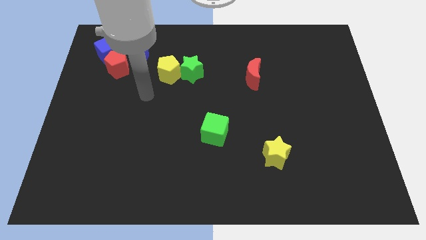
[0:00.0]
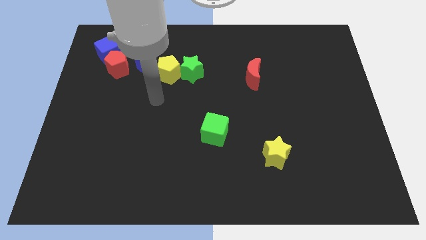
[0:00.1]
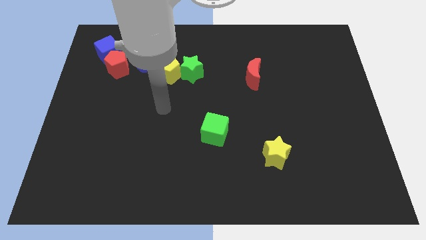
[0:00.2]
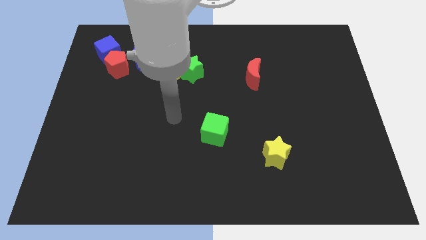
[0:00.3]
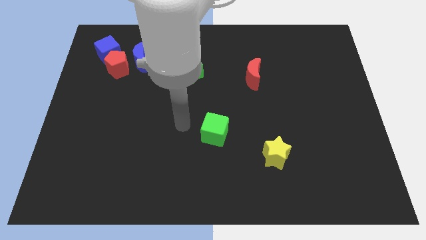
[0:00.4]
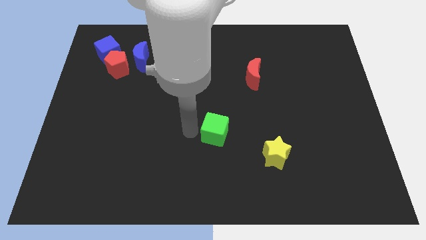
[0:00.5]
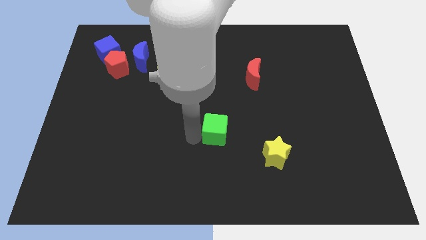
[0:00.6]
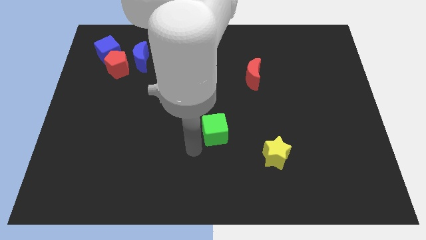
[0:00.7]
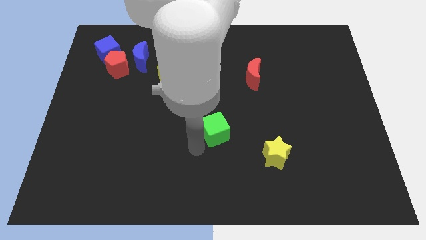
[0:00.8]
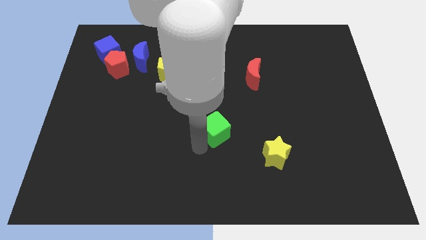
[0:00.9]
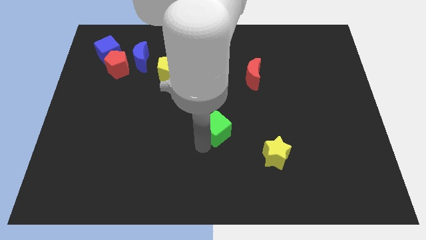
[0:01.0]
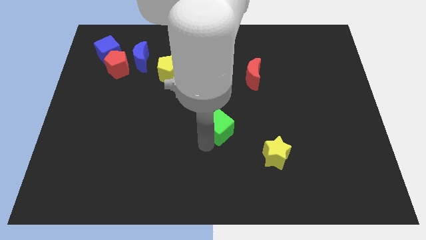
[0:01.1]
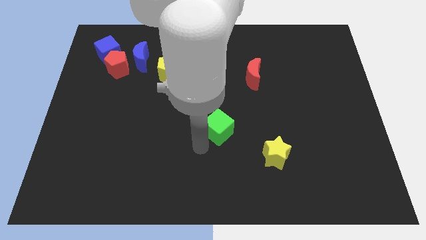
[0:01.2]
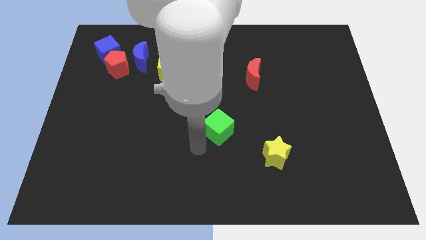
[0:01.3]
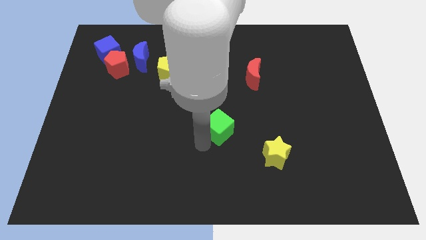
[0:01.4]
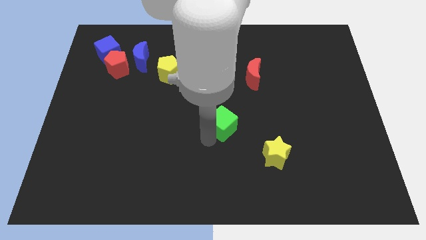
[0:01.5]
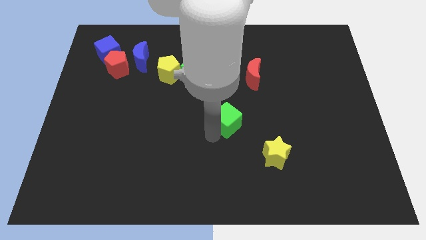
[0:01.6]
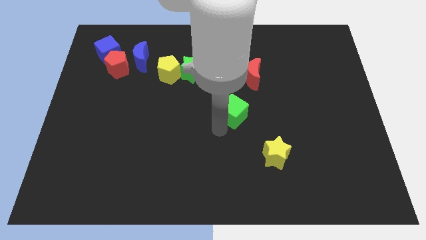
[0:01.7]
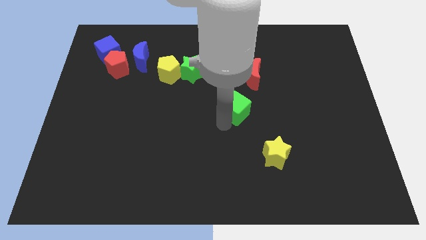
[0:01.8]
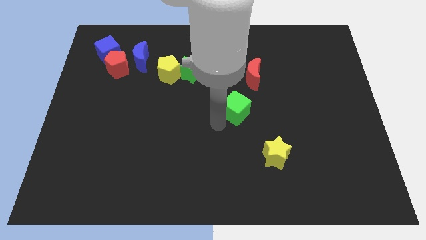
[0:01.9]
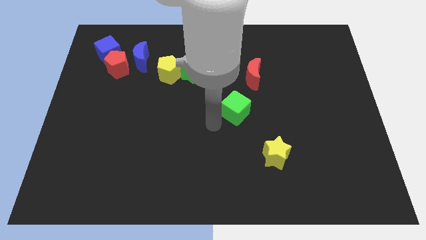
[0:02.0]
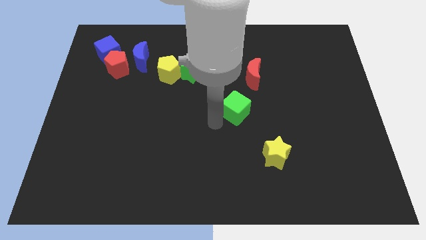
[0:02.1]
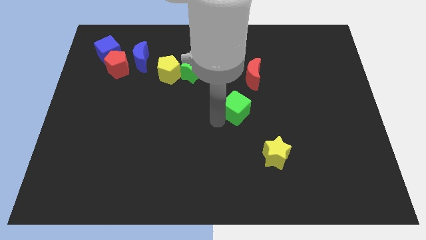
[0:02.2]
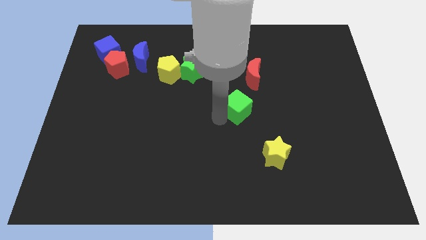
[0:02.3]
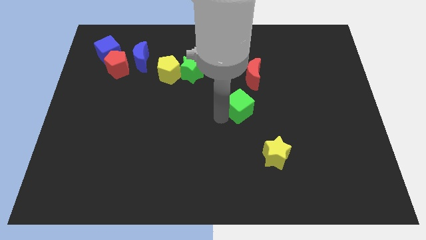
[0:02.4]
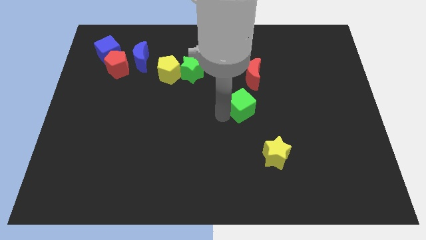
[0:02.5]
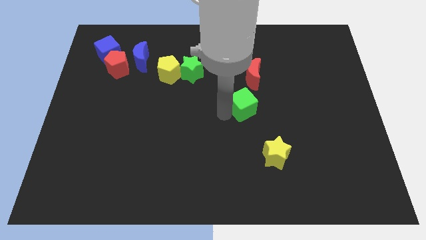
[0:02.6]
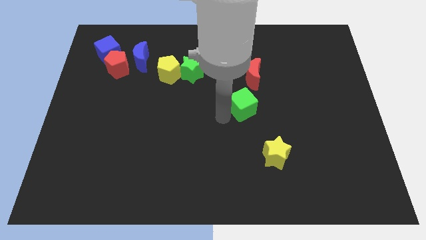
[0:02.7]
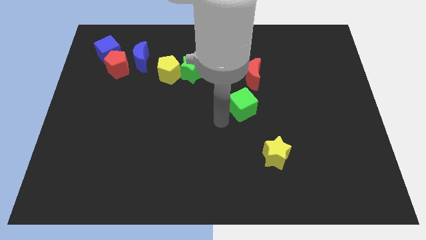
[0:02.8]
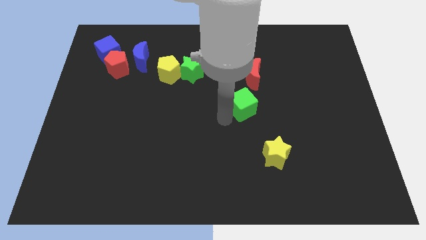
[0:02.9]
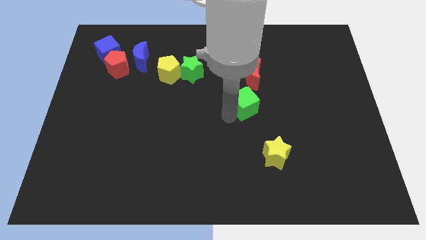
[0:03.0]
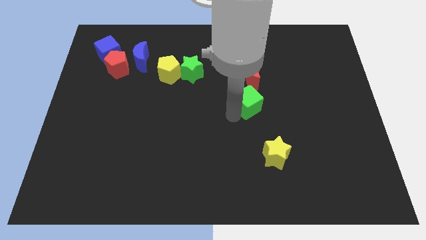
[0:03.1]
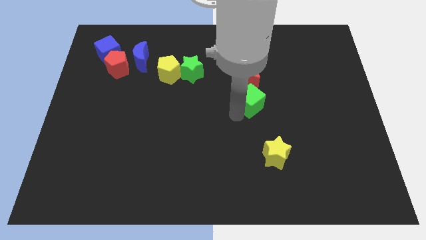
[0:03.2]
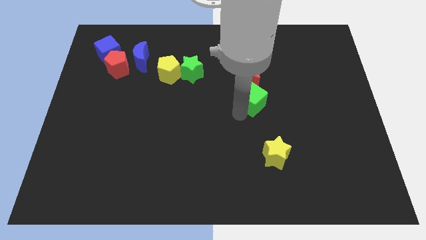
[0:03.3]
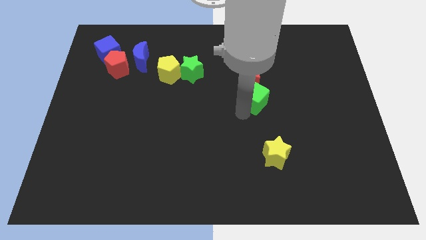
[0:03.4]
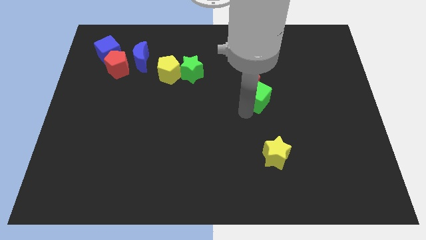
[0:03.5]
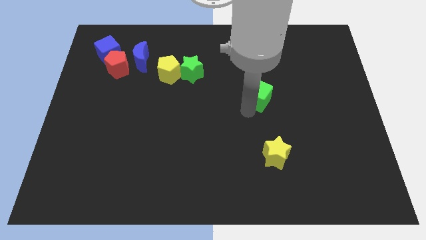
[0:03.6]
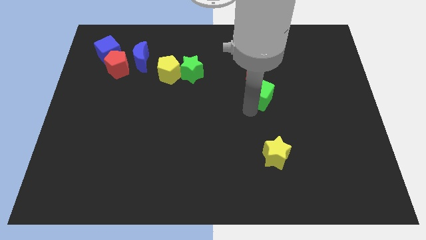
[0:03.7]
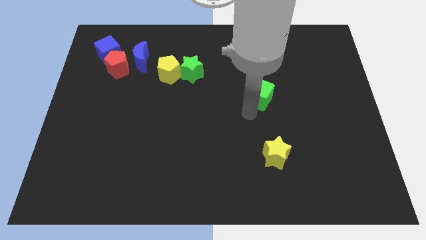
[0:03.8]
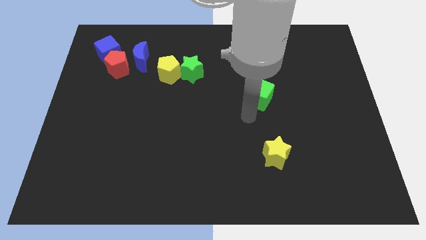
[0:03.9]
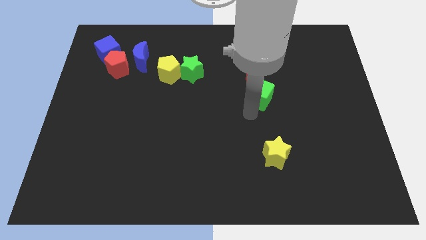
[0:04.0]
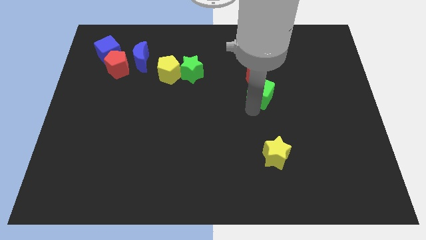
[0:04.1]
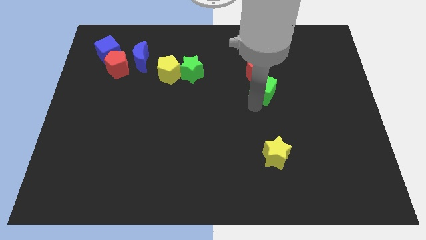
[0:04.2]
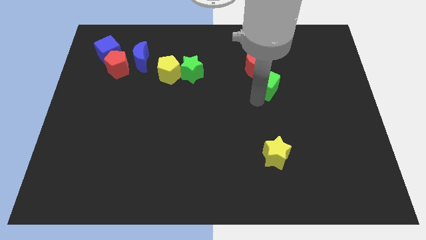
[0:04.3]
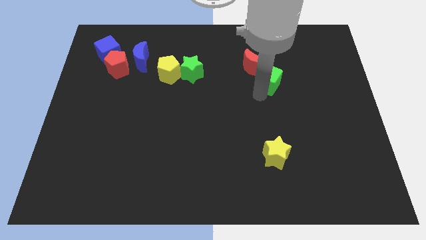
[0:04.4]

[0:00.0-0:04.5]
move the green cube up and to the right

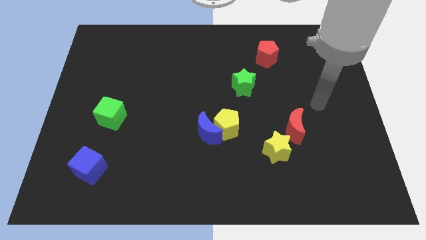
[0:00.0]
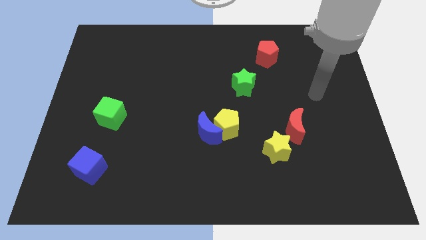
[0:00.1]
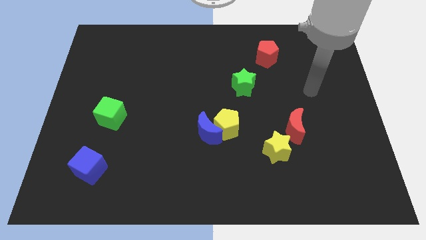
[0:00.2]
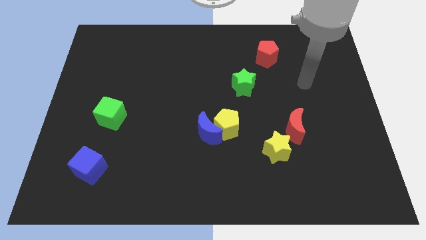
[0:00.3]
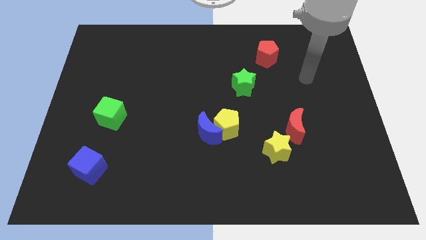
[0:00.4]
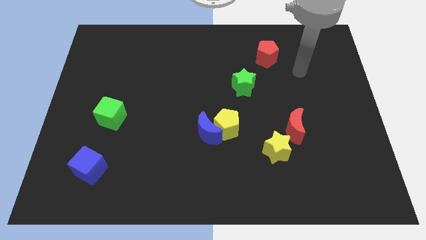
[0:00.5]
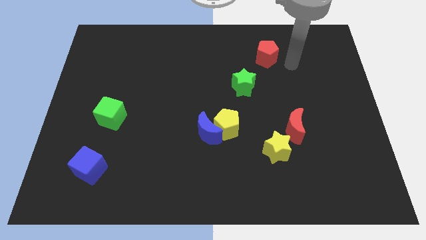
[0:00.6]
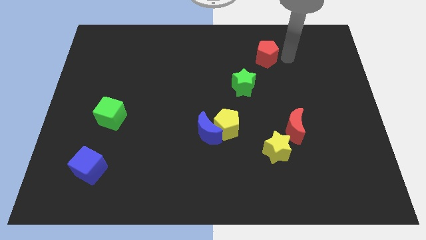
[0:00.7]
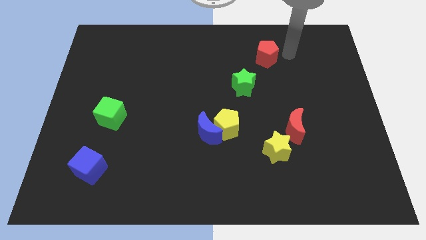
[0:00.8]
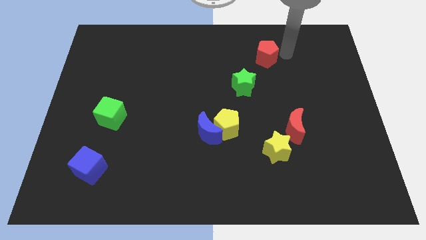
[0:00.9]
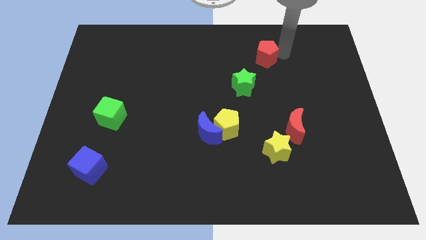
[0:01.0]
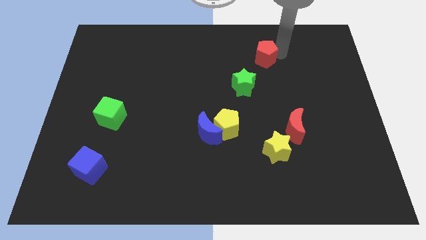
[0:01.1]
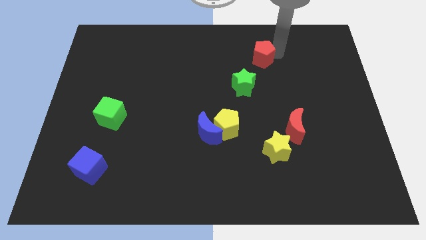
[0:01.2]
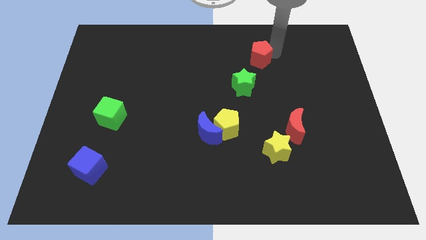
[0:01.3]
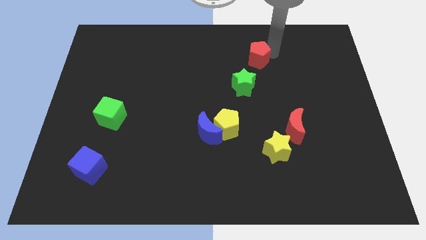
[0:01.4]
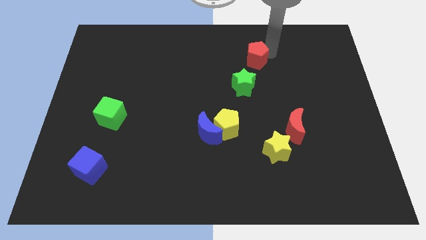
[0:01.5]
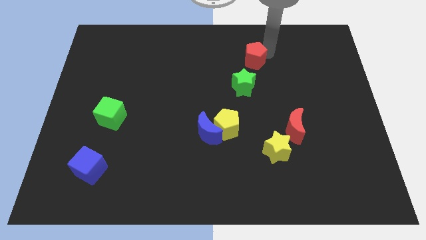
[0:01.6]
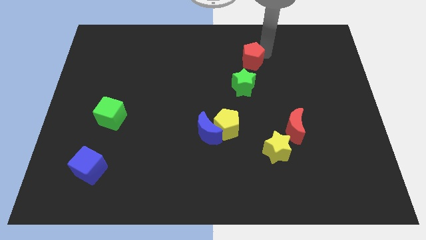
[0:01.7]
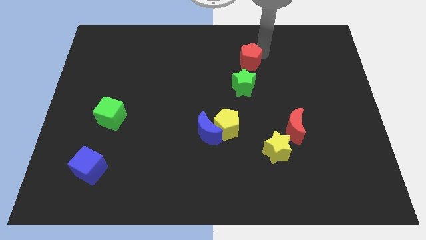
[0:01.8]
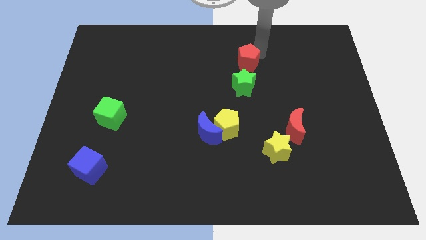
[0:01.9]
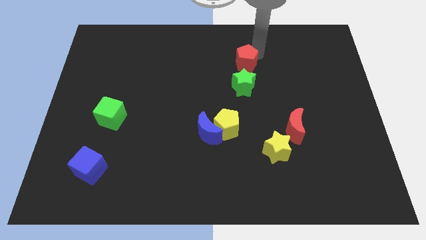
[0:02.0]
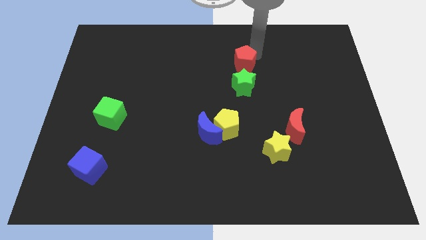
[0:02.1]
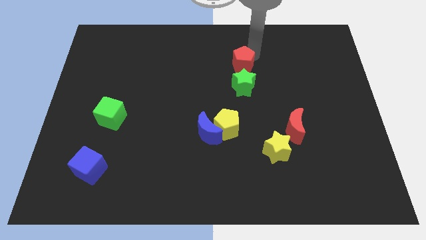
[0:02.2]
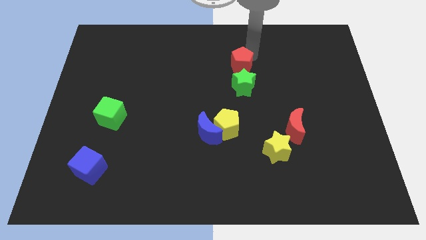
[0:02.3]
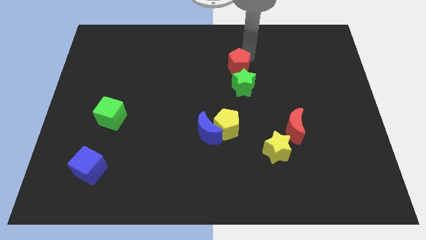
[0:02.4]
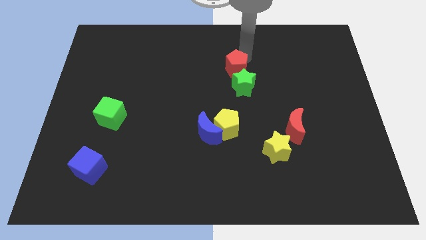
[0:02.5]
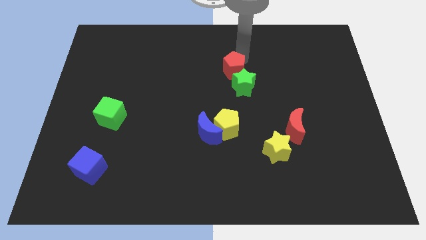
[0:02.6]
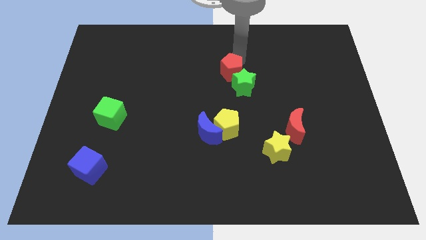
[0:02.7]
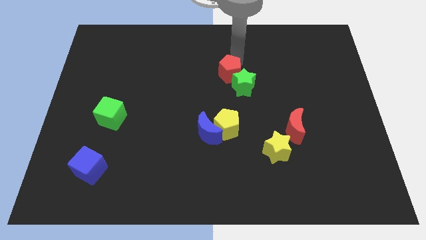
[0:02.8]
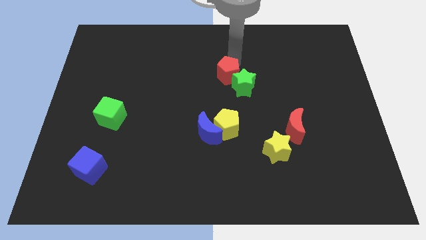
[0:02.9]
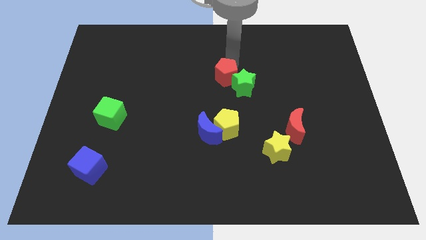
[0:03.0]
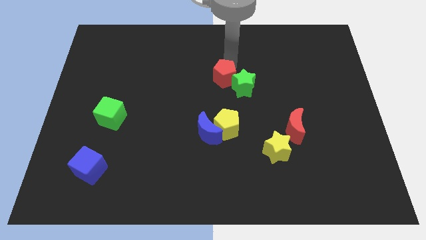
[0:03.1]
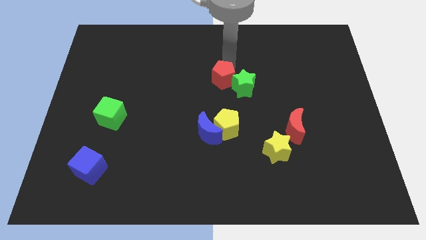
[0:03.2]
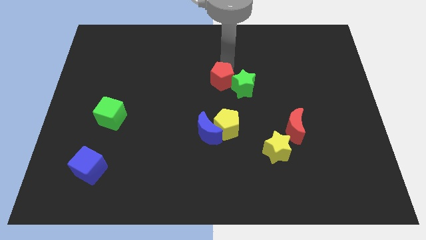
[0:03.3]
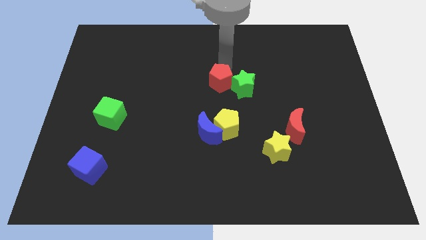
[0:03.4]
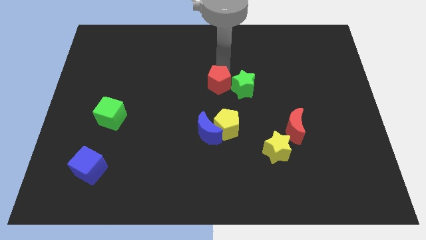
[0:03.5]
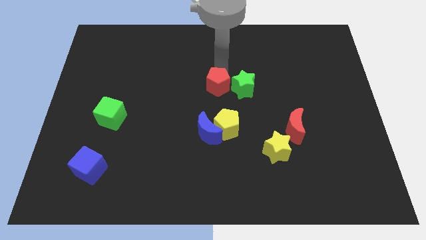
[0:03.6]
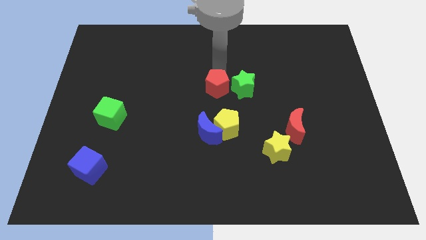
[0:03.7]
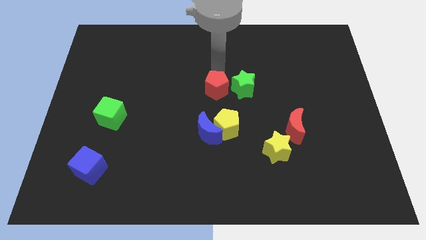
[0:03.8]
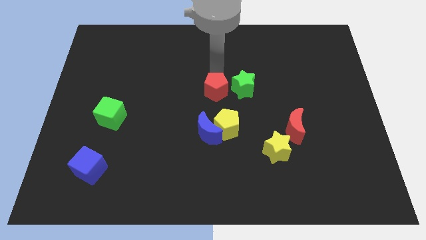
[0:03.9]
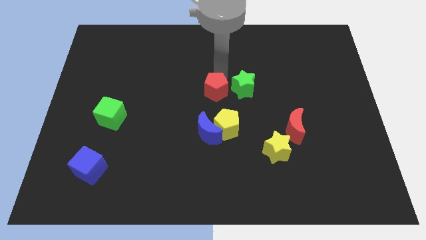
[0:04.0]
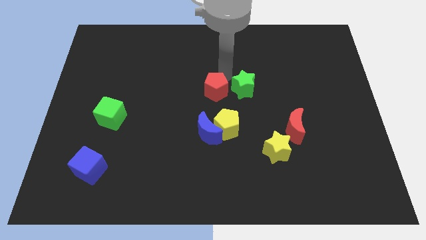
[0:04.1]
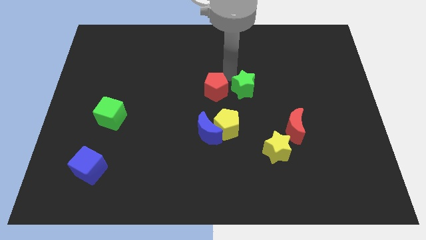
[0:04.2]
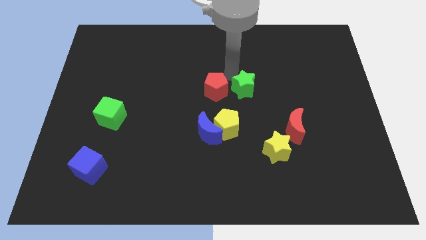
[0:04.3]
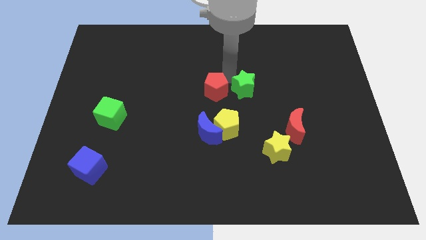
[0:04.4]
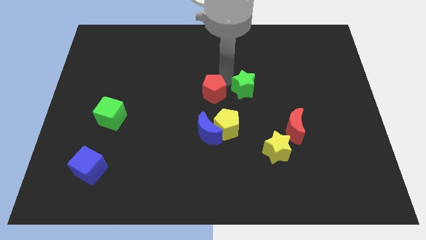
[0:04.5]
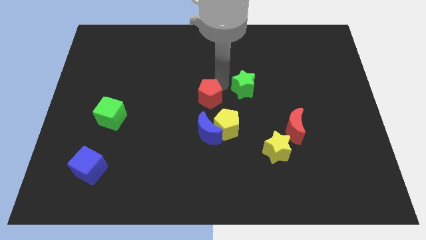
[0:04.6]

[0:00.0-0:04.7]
move the red pentagon diagonally down and to the left
